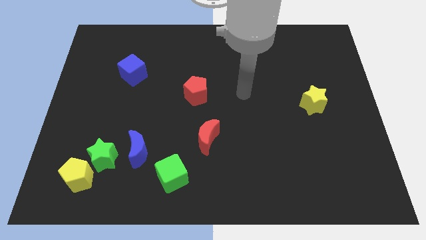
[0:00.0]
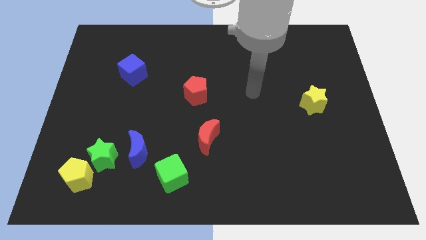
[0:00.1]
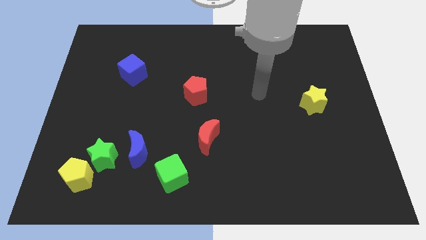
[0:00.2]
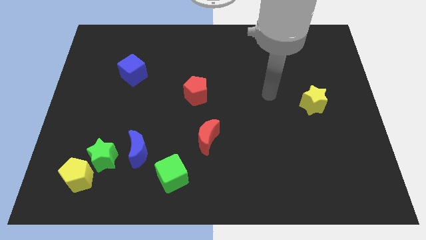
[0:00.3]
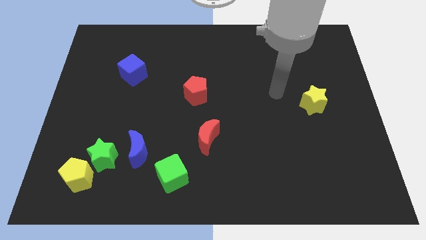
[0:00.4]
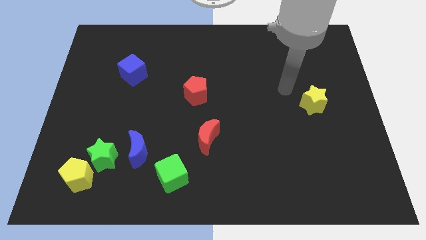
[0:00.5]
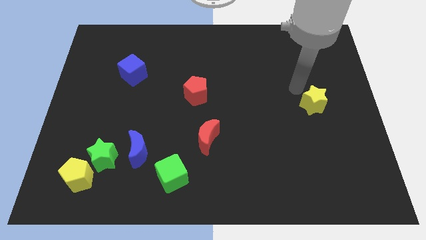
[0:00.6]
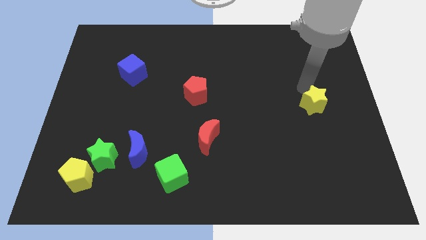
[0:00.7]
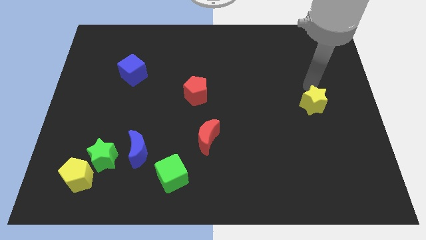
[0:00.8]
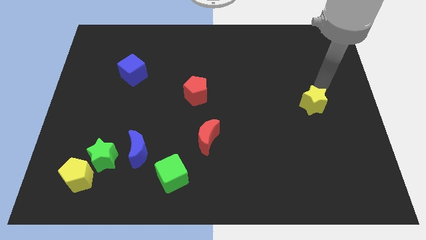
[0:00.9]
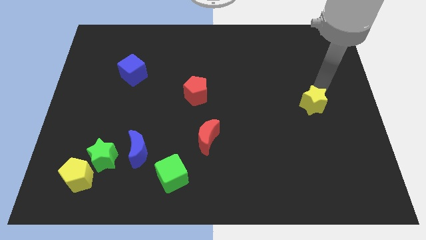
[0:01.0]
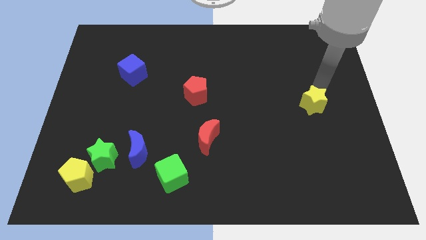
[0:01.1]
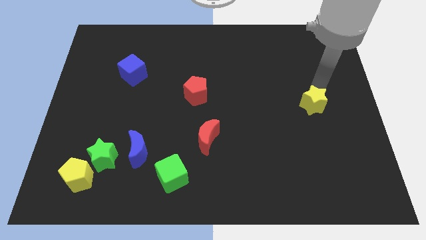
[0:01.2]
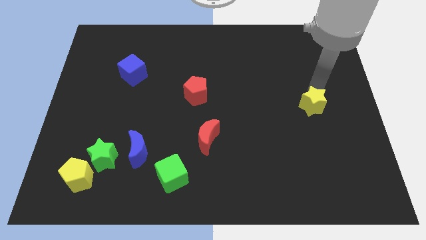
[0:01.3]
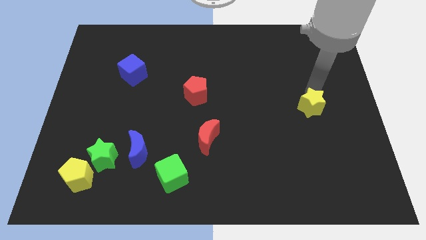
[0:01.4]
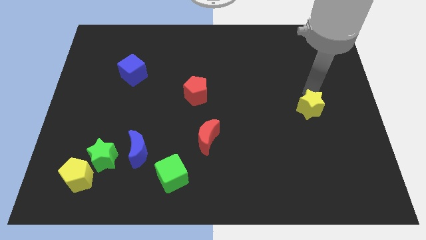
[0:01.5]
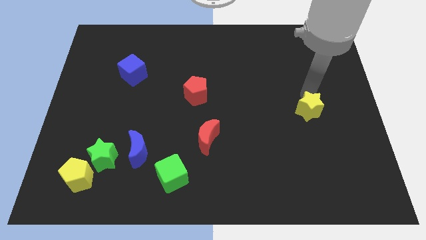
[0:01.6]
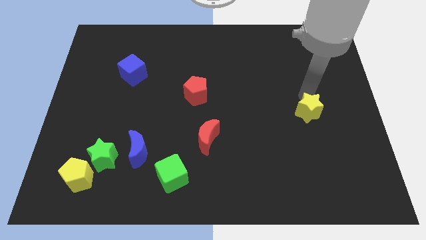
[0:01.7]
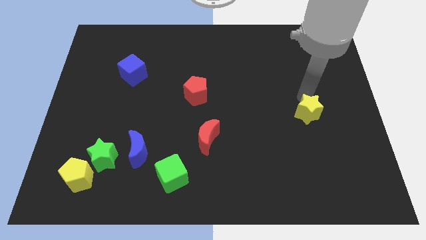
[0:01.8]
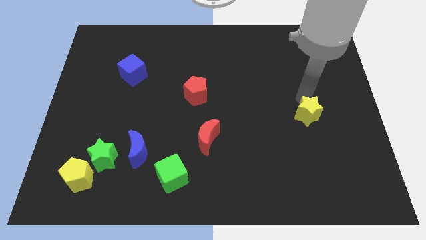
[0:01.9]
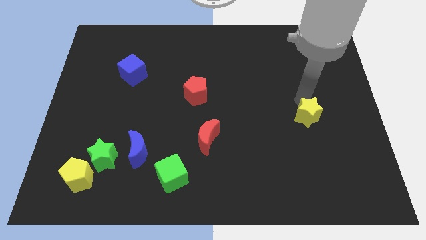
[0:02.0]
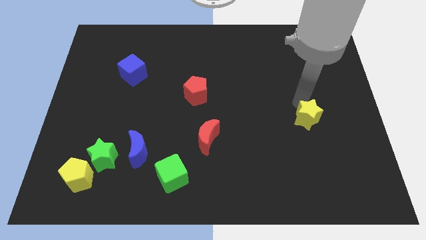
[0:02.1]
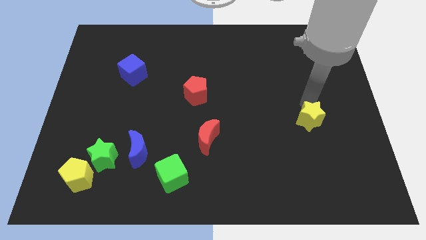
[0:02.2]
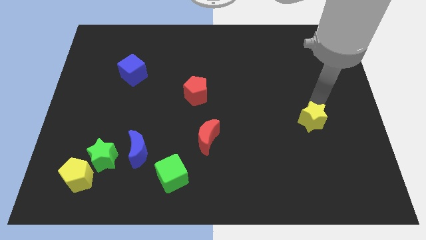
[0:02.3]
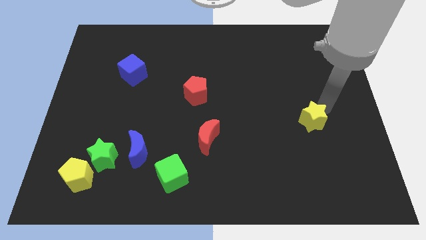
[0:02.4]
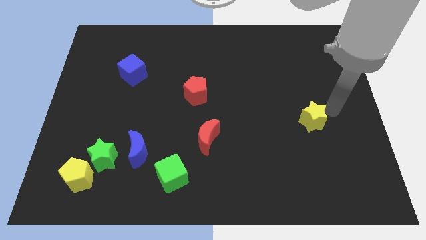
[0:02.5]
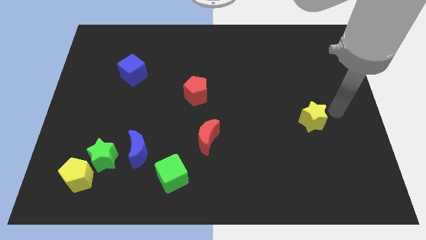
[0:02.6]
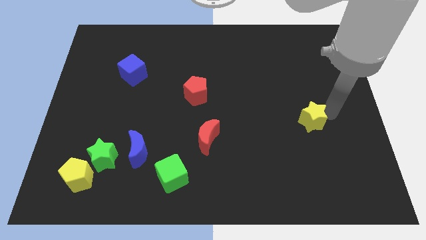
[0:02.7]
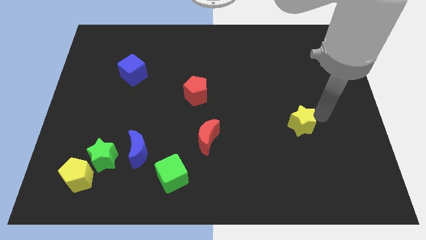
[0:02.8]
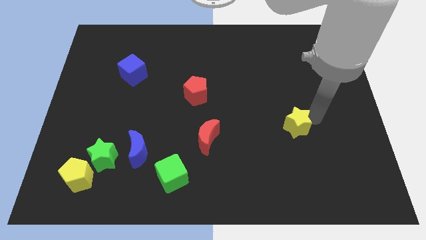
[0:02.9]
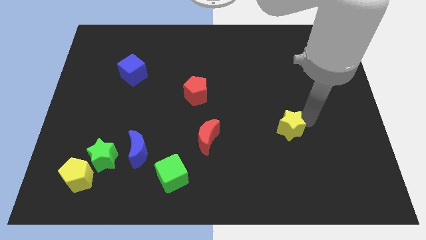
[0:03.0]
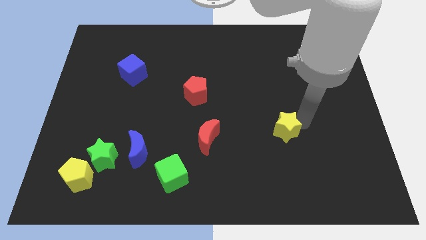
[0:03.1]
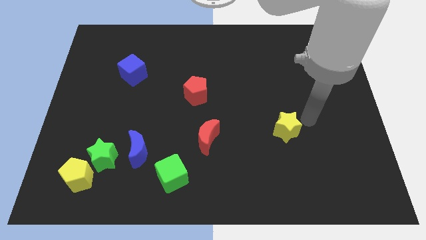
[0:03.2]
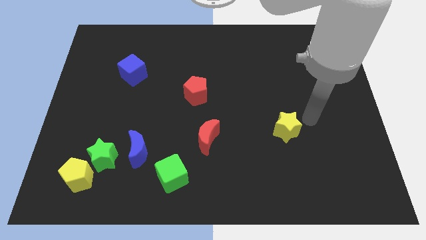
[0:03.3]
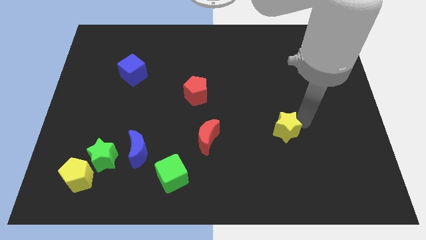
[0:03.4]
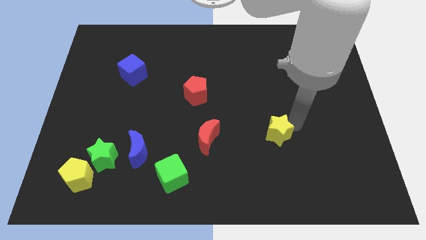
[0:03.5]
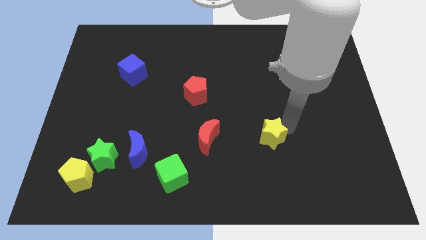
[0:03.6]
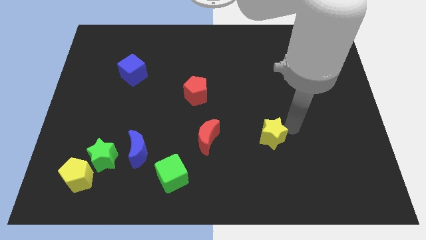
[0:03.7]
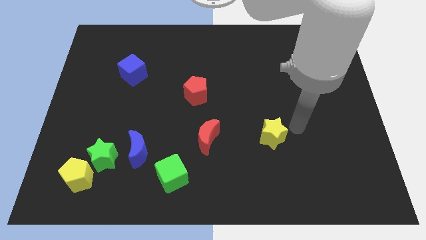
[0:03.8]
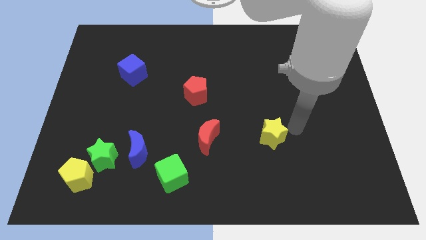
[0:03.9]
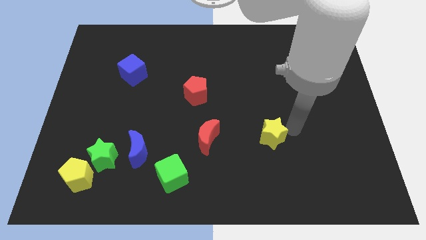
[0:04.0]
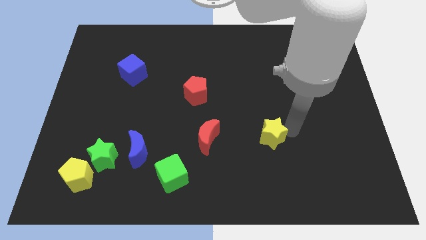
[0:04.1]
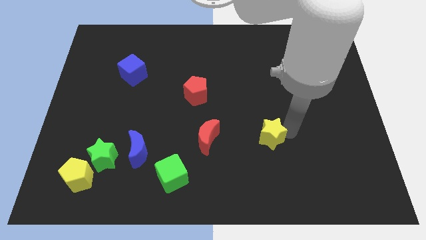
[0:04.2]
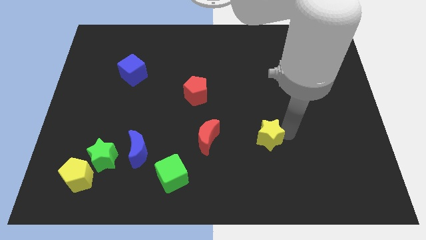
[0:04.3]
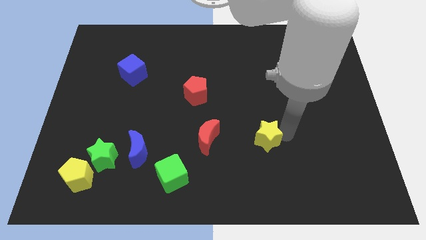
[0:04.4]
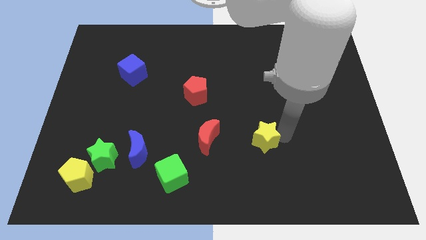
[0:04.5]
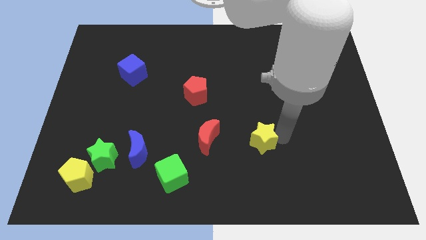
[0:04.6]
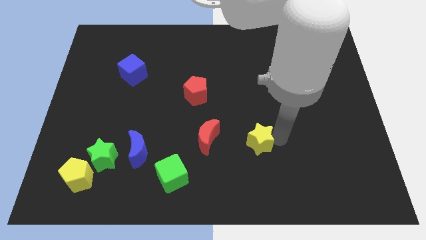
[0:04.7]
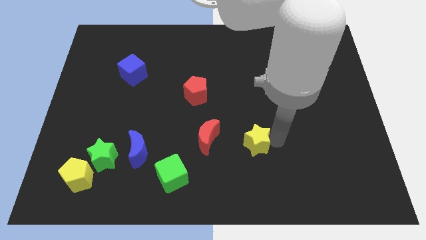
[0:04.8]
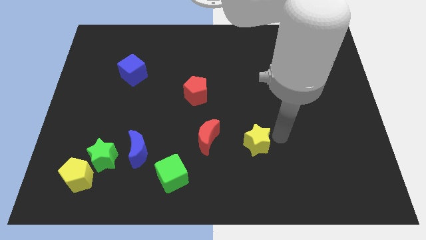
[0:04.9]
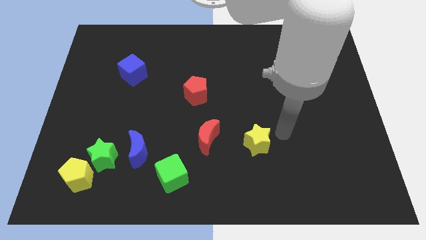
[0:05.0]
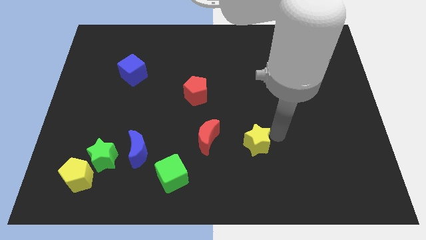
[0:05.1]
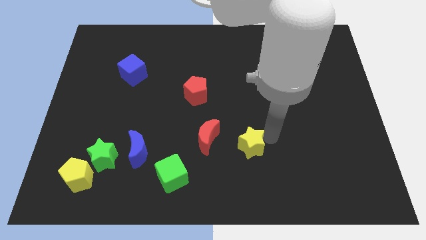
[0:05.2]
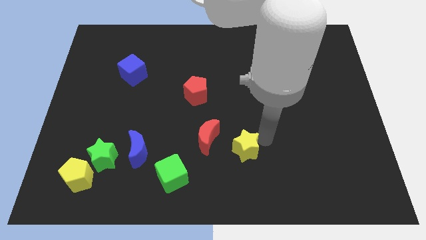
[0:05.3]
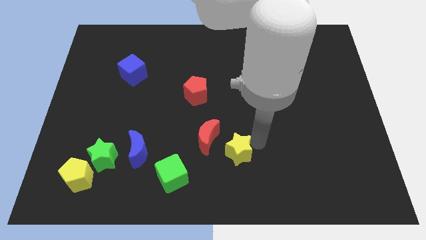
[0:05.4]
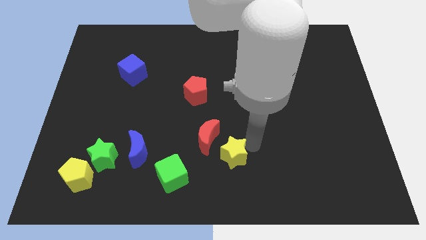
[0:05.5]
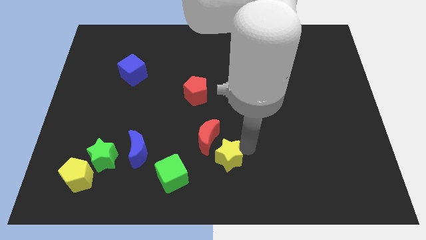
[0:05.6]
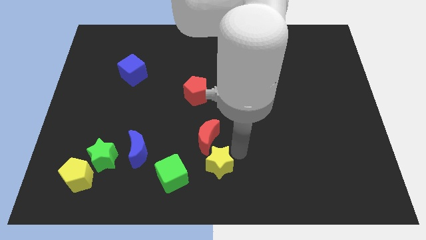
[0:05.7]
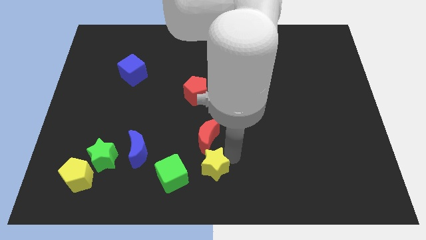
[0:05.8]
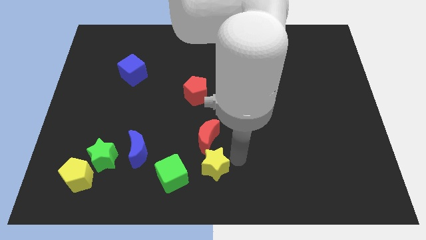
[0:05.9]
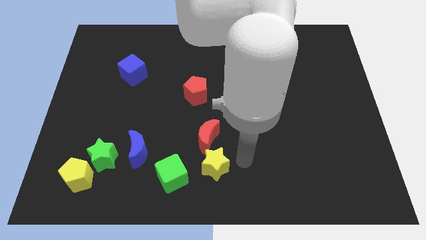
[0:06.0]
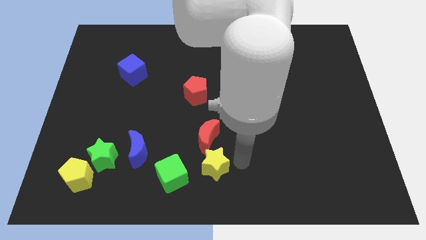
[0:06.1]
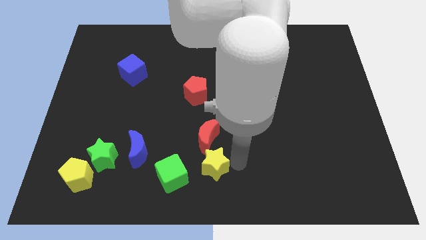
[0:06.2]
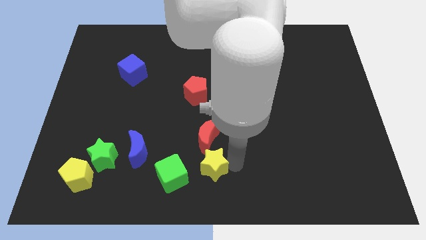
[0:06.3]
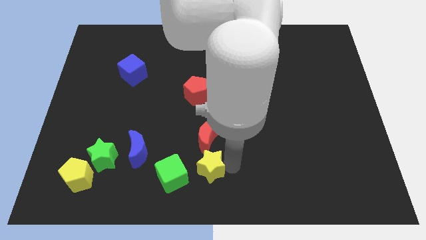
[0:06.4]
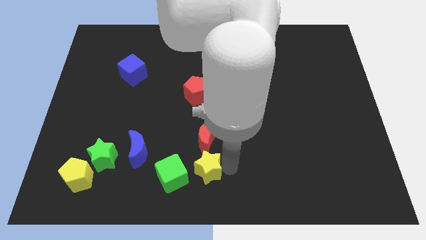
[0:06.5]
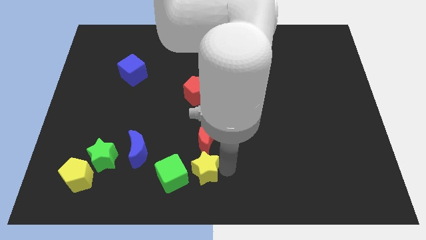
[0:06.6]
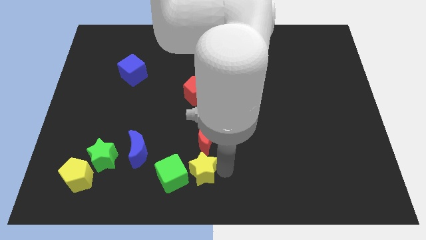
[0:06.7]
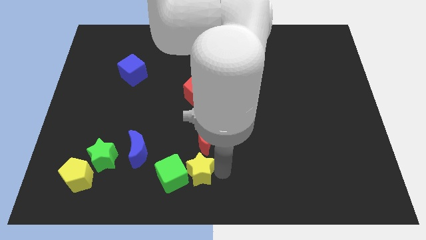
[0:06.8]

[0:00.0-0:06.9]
move the yellow star to the green cube

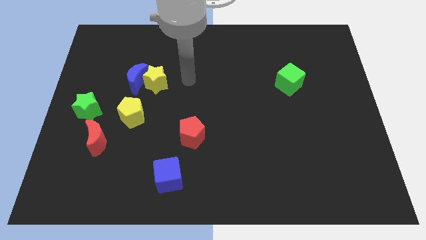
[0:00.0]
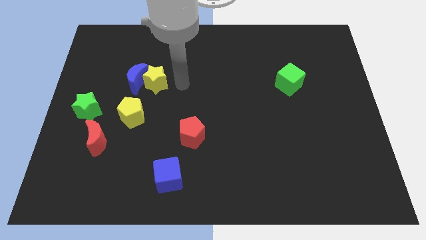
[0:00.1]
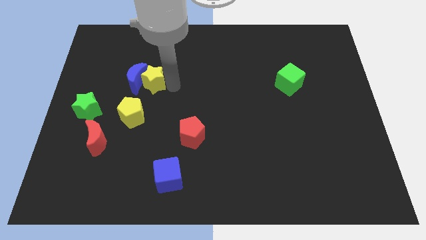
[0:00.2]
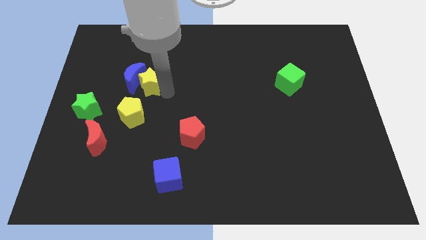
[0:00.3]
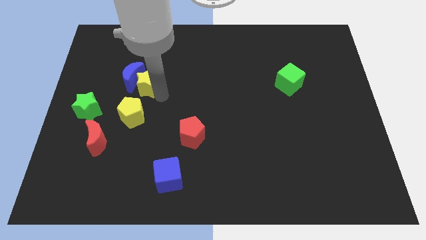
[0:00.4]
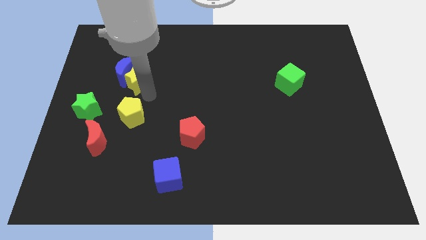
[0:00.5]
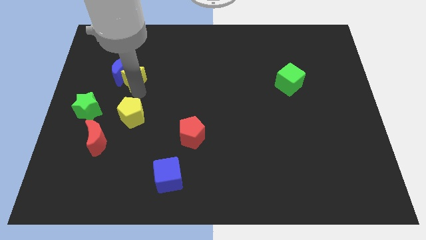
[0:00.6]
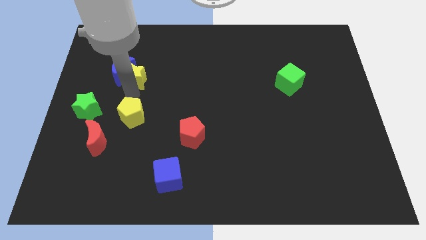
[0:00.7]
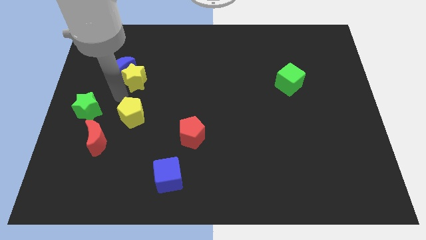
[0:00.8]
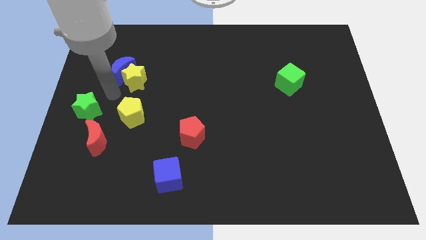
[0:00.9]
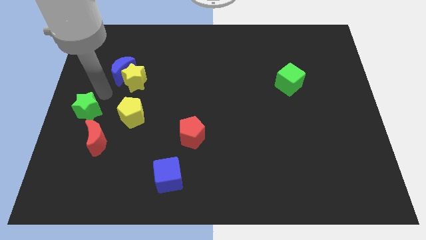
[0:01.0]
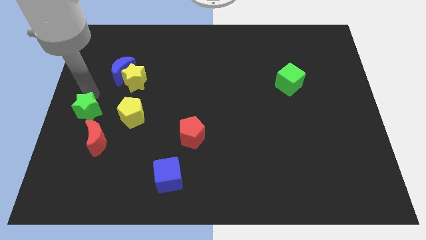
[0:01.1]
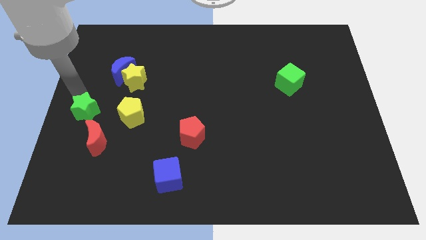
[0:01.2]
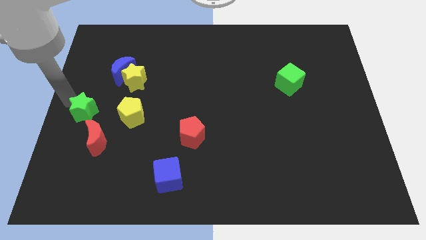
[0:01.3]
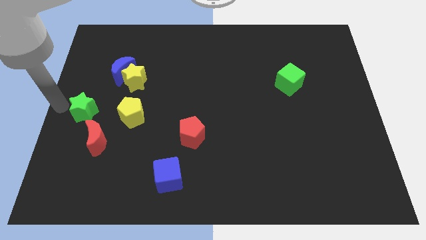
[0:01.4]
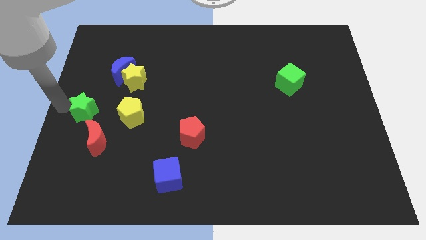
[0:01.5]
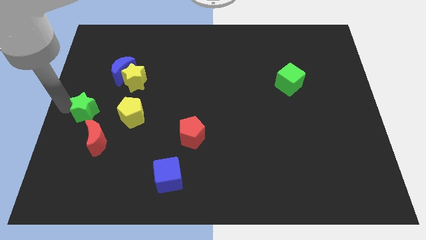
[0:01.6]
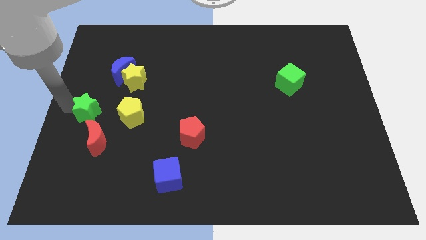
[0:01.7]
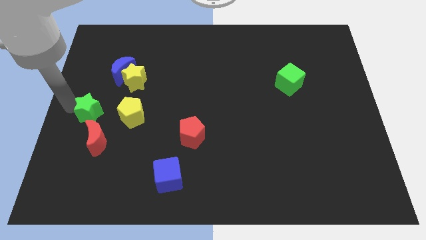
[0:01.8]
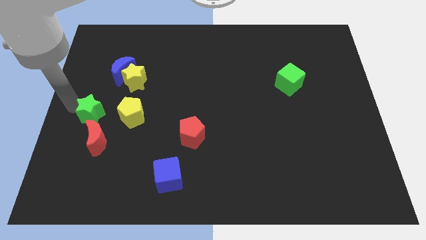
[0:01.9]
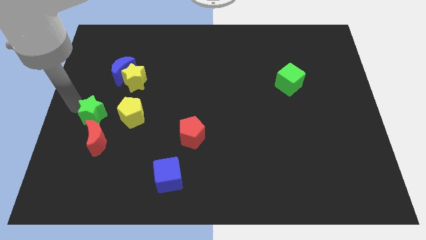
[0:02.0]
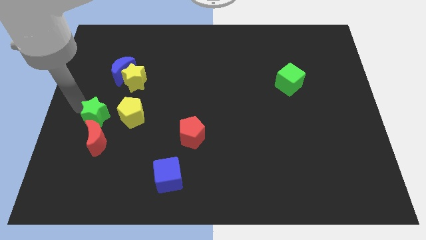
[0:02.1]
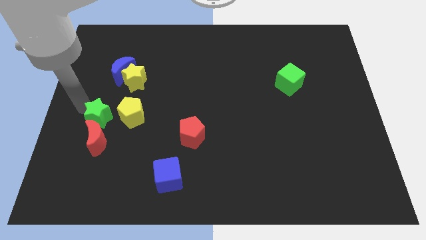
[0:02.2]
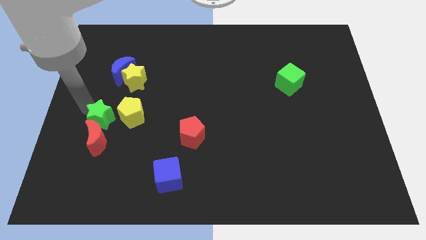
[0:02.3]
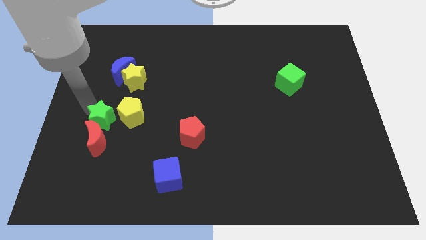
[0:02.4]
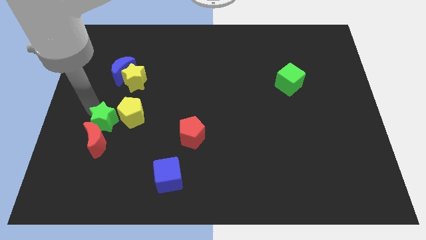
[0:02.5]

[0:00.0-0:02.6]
slide the green star next to the yellow pentagon
